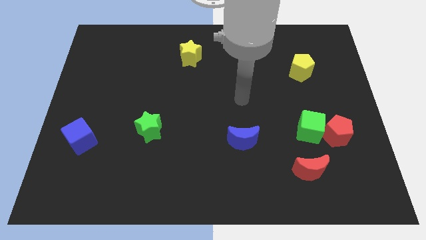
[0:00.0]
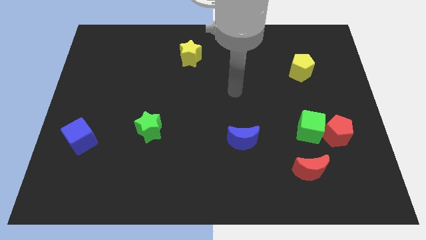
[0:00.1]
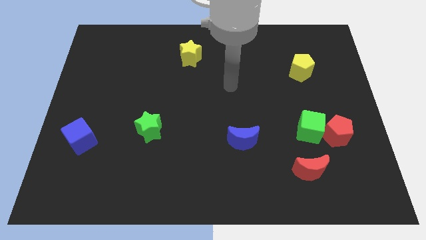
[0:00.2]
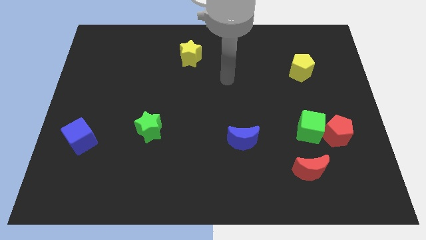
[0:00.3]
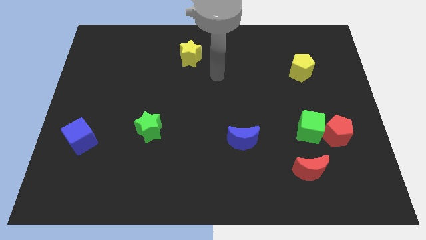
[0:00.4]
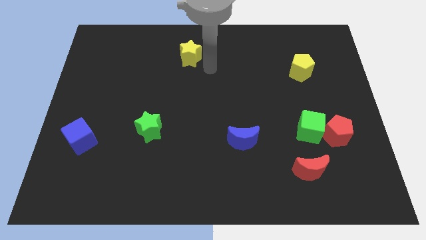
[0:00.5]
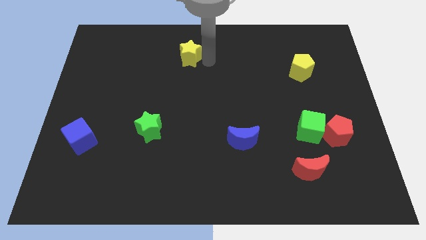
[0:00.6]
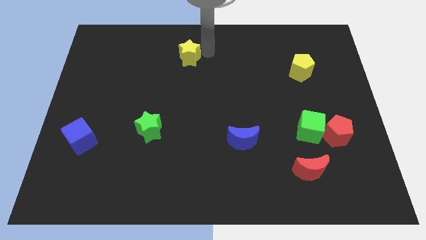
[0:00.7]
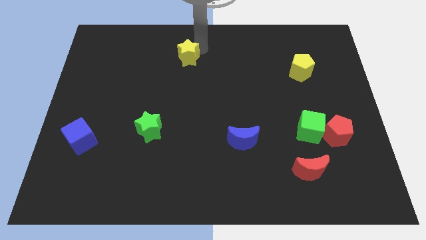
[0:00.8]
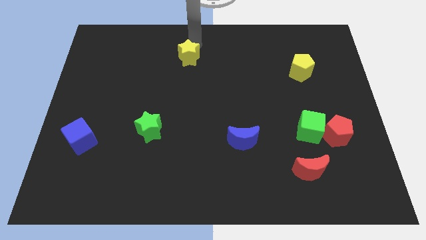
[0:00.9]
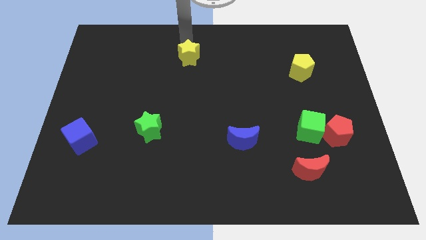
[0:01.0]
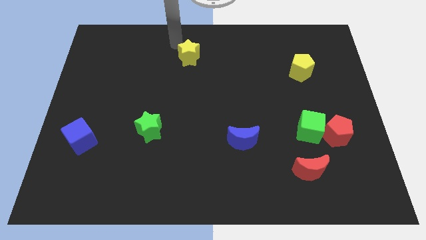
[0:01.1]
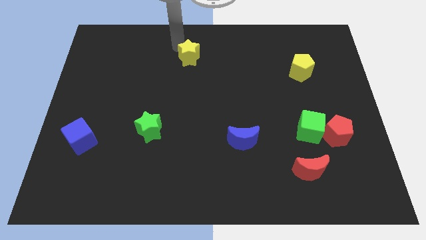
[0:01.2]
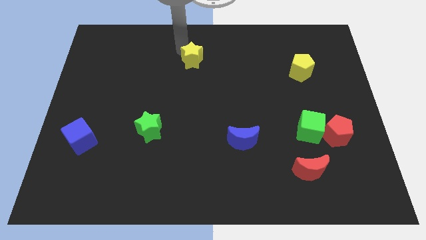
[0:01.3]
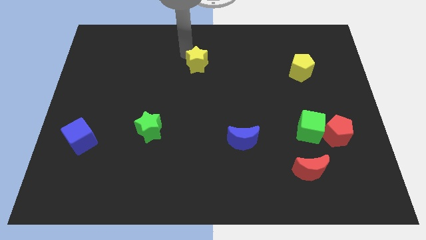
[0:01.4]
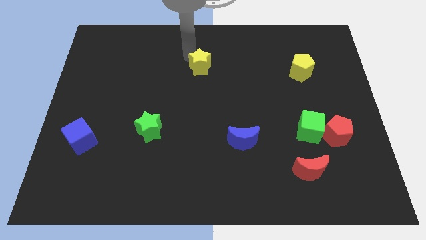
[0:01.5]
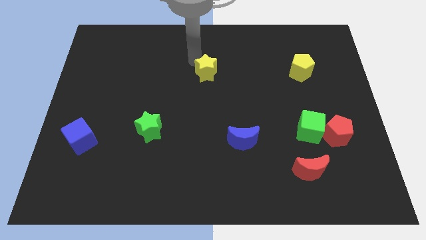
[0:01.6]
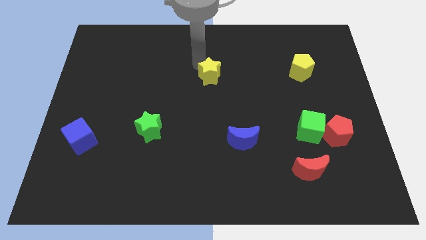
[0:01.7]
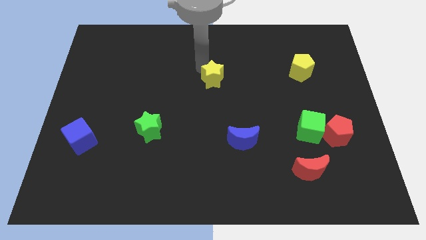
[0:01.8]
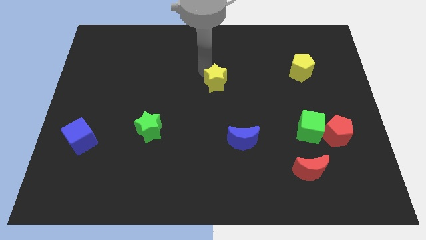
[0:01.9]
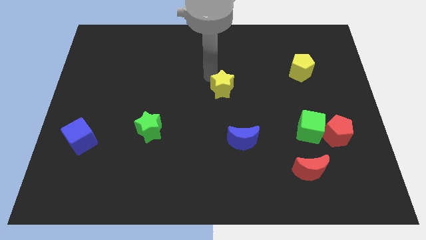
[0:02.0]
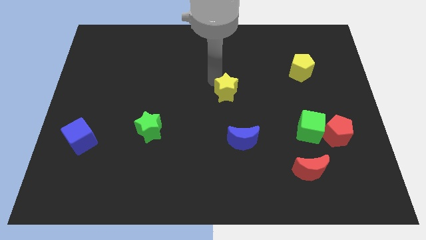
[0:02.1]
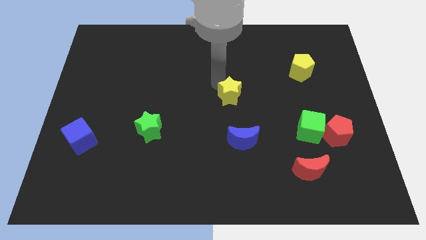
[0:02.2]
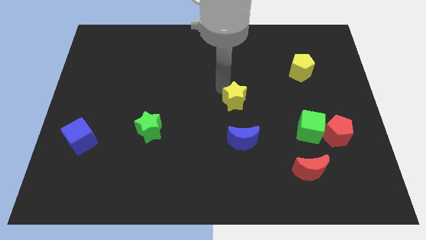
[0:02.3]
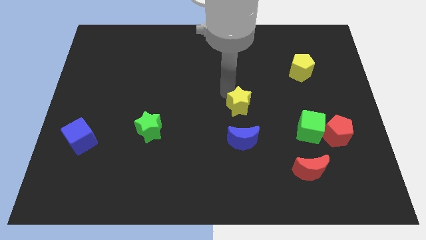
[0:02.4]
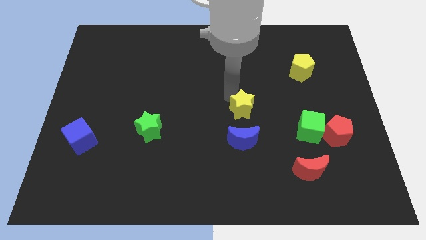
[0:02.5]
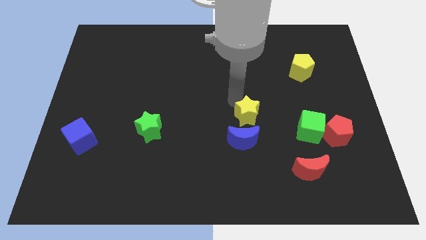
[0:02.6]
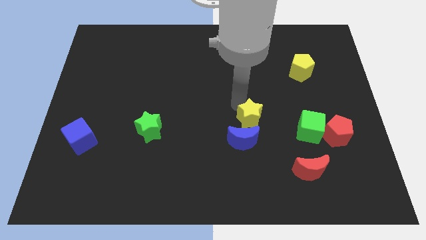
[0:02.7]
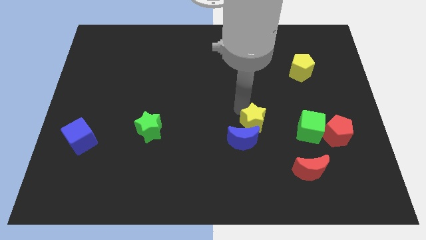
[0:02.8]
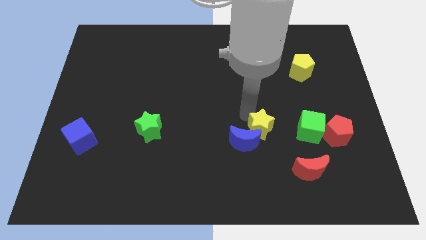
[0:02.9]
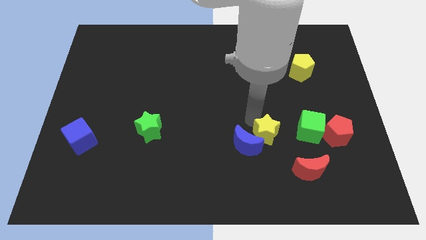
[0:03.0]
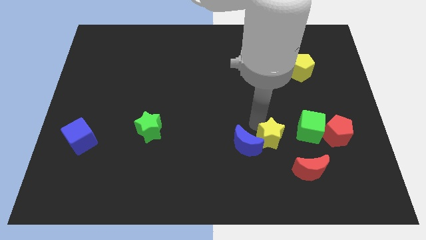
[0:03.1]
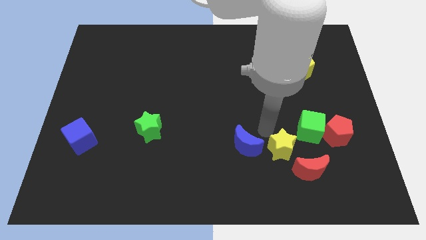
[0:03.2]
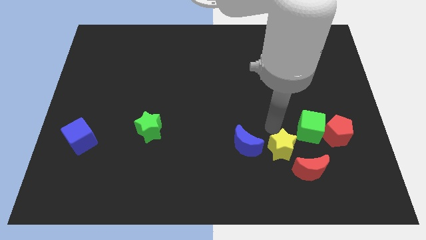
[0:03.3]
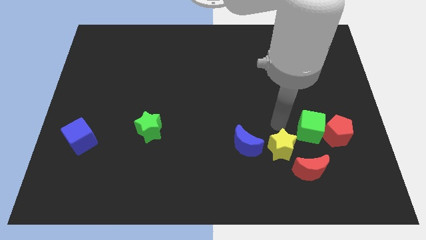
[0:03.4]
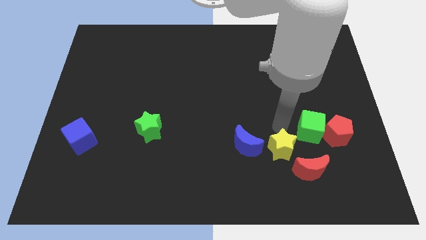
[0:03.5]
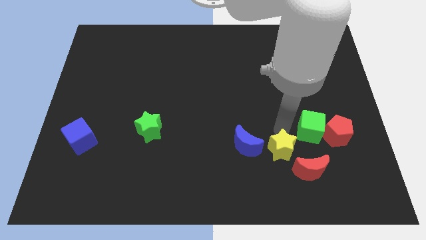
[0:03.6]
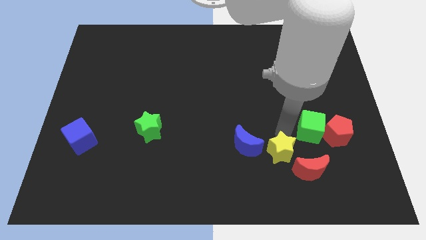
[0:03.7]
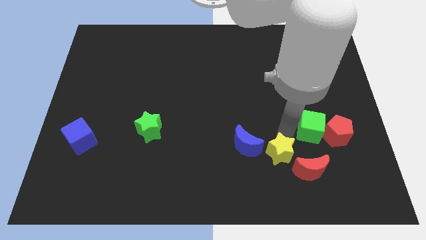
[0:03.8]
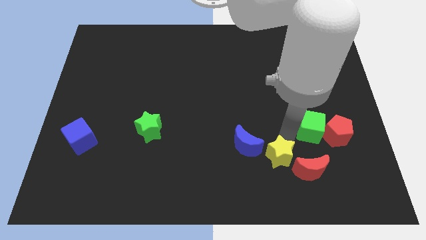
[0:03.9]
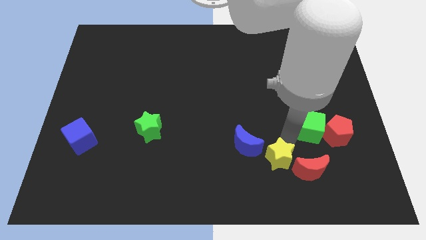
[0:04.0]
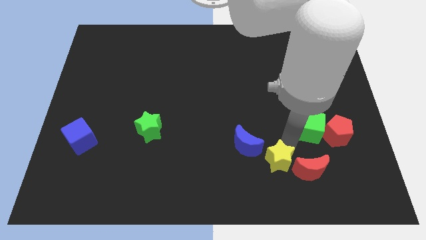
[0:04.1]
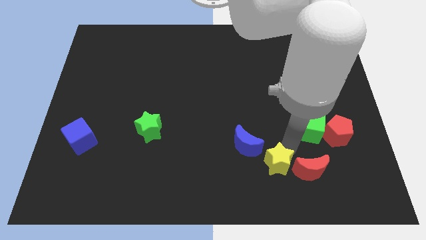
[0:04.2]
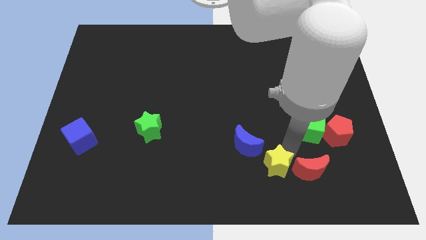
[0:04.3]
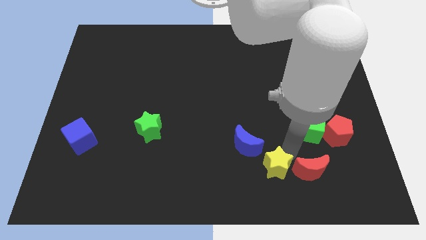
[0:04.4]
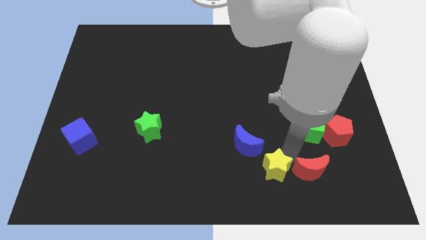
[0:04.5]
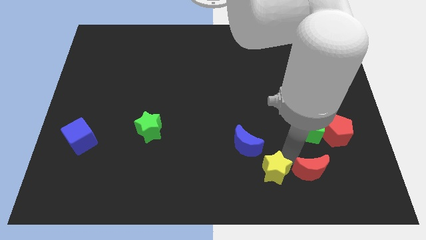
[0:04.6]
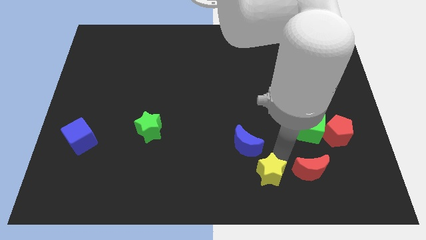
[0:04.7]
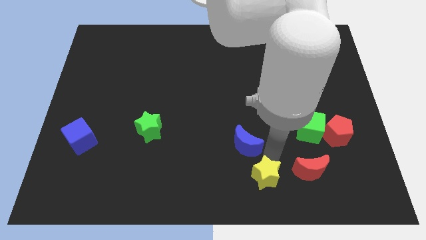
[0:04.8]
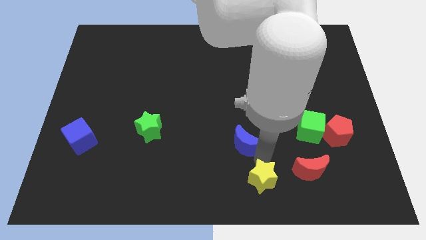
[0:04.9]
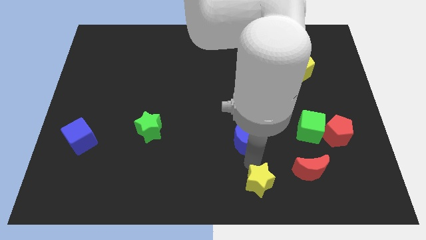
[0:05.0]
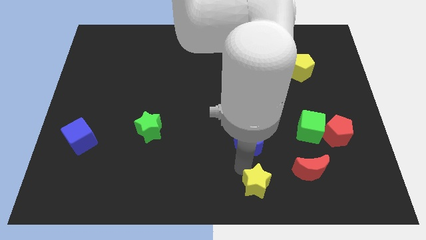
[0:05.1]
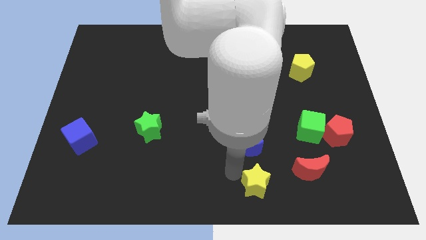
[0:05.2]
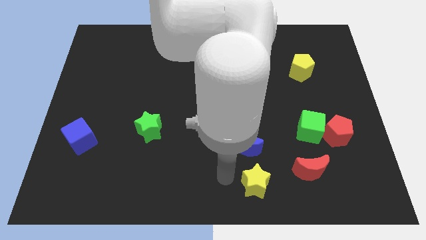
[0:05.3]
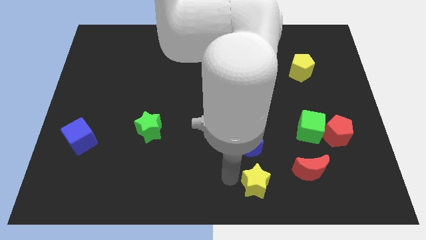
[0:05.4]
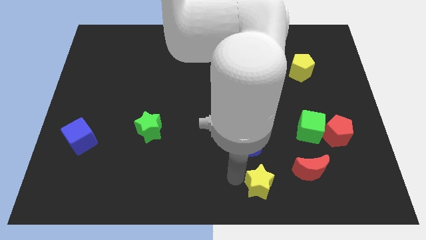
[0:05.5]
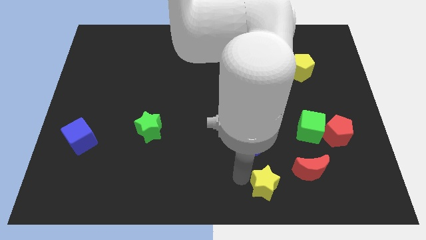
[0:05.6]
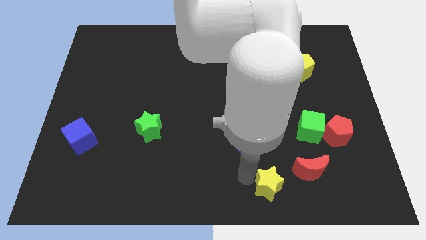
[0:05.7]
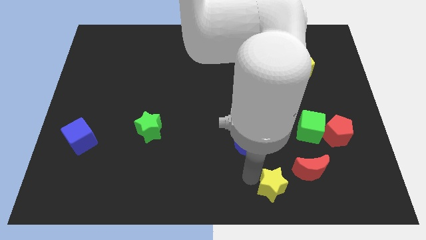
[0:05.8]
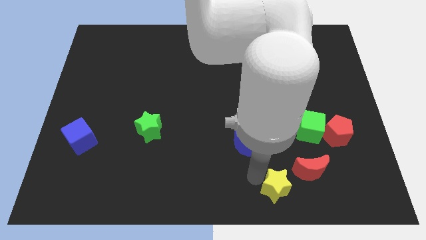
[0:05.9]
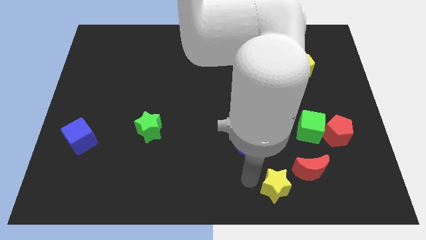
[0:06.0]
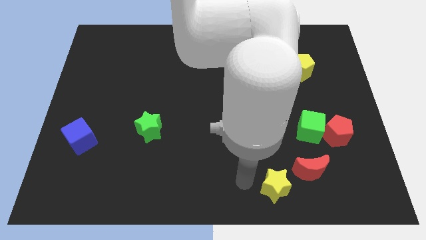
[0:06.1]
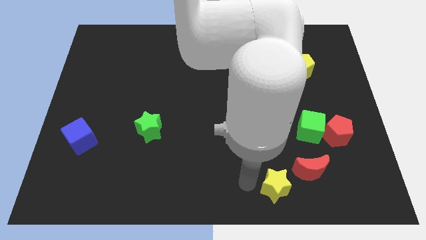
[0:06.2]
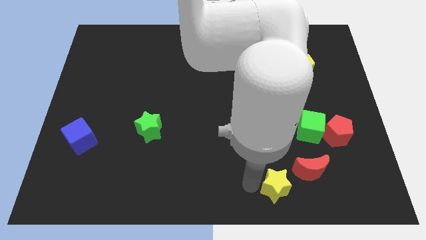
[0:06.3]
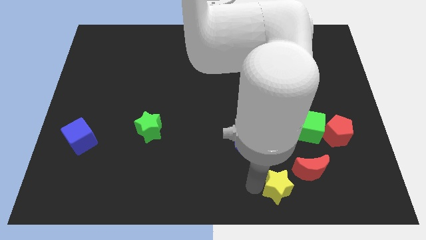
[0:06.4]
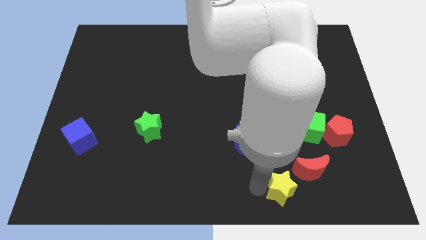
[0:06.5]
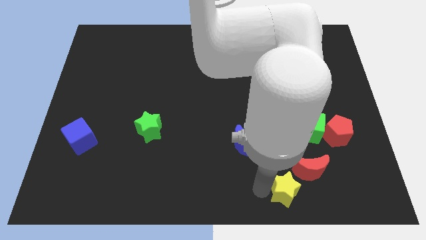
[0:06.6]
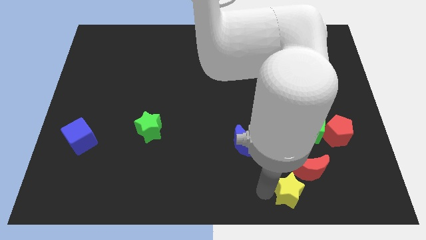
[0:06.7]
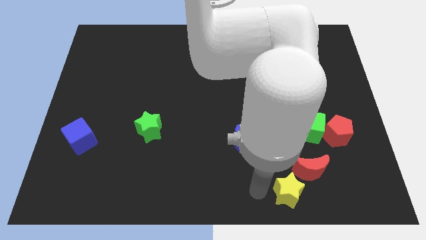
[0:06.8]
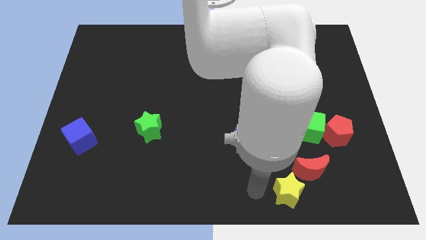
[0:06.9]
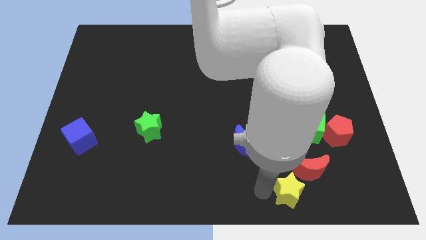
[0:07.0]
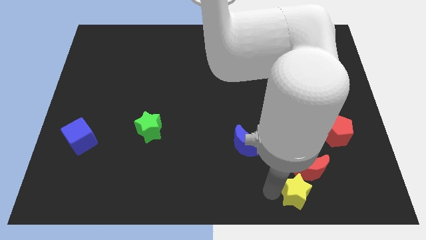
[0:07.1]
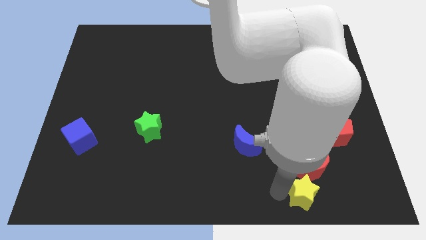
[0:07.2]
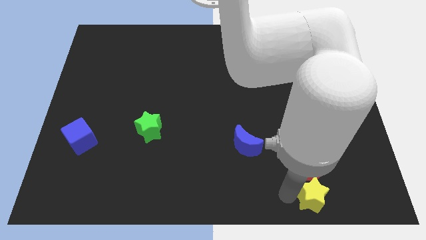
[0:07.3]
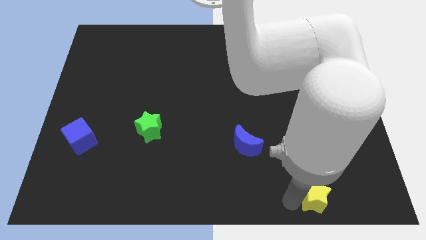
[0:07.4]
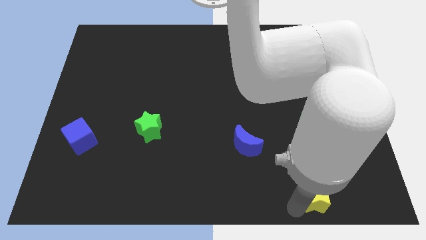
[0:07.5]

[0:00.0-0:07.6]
move the yellow star below the green cube

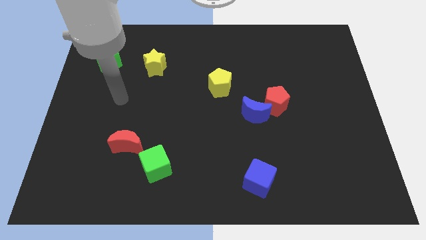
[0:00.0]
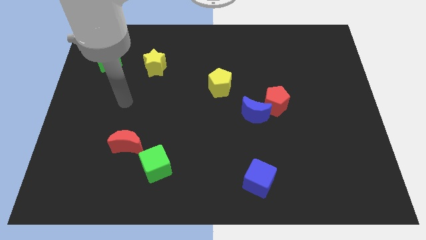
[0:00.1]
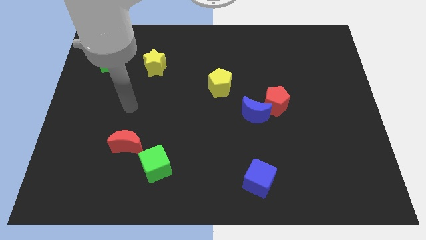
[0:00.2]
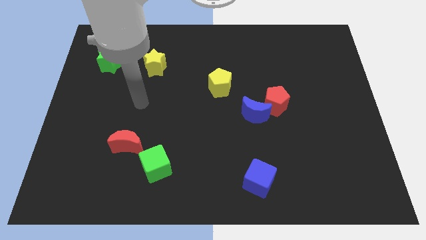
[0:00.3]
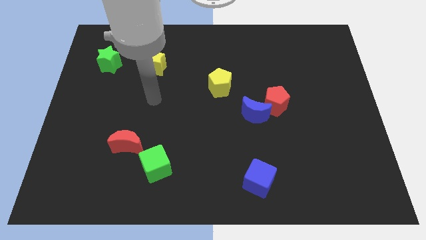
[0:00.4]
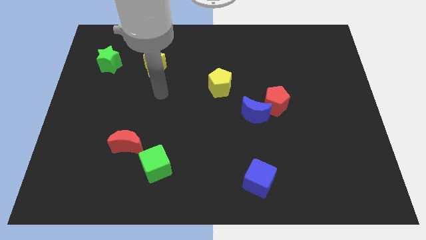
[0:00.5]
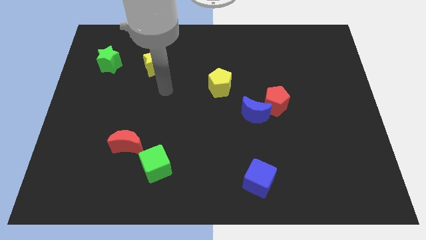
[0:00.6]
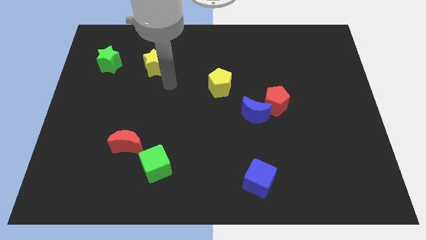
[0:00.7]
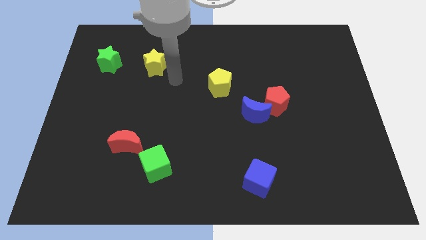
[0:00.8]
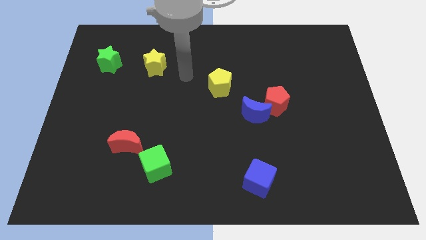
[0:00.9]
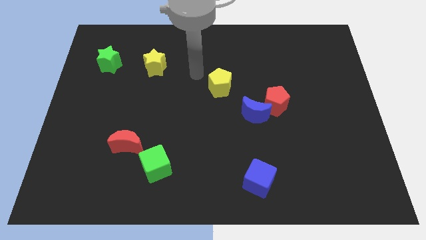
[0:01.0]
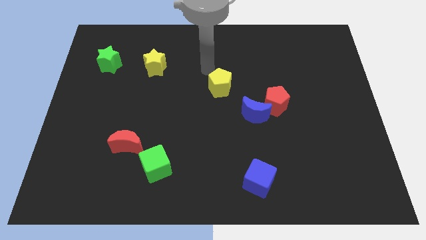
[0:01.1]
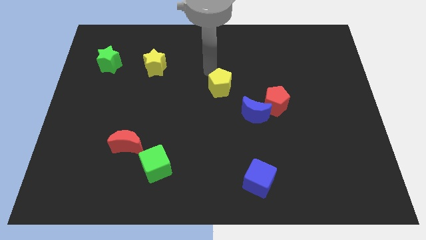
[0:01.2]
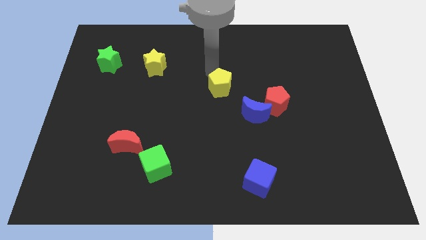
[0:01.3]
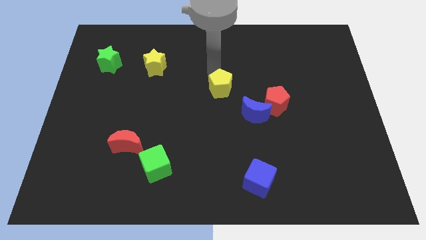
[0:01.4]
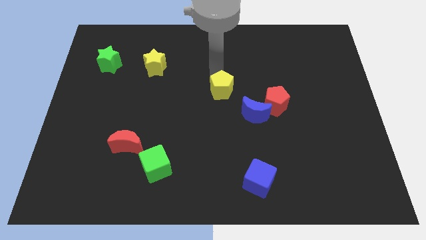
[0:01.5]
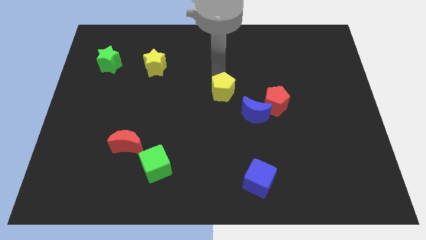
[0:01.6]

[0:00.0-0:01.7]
put the yellow pentagon just left of the red pentagon
